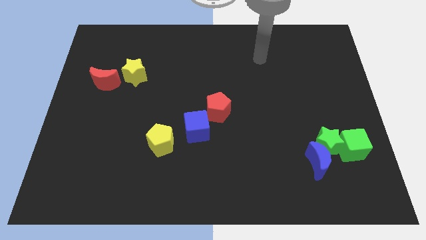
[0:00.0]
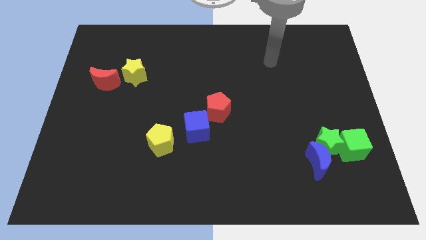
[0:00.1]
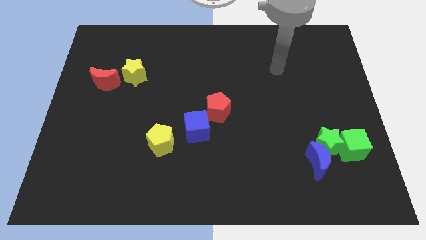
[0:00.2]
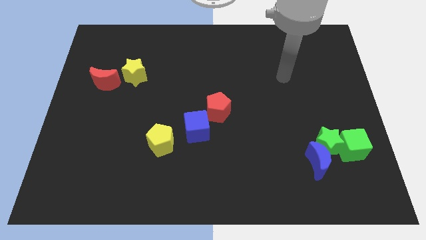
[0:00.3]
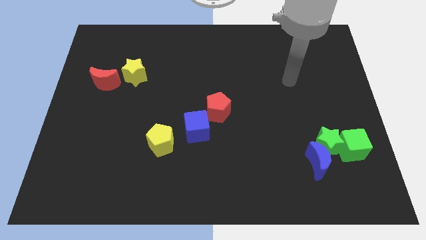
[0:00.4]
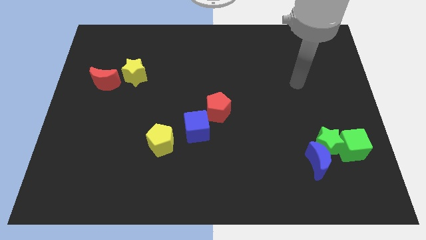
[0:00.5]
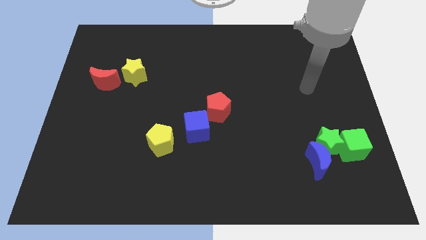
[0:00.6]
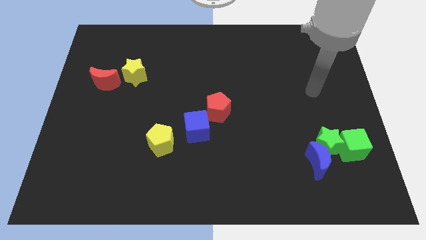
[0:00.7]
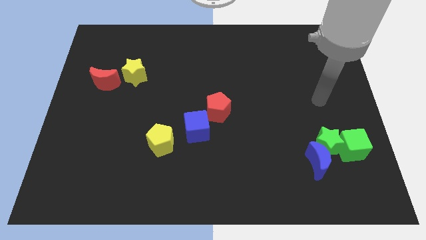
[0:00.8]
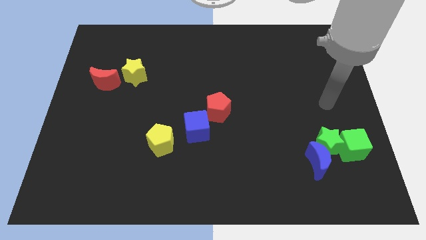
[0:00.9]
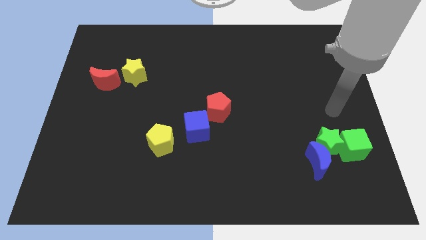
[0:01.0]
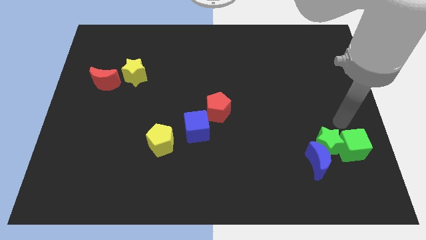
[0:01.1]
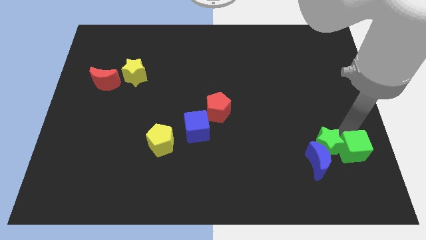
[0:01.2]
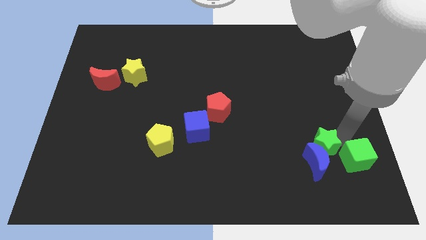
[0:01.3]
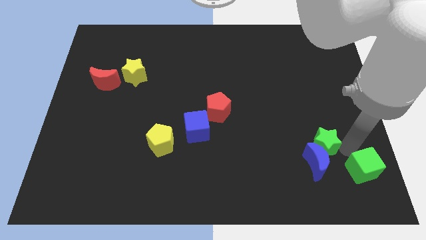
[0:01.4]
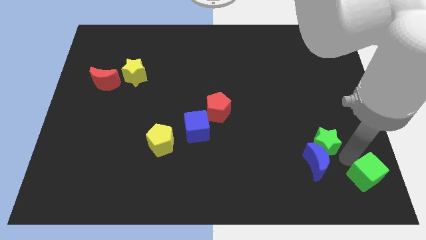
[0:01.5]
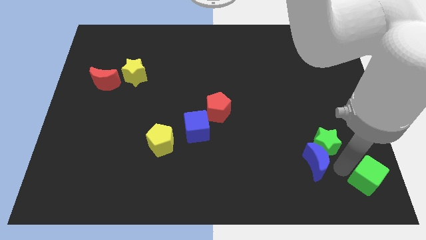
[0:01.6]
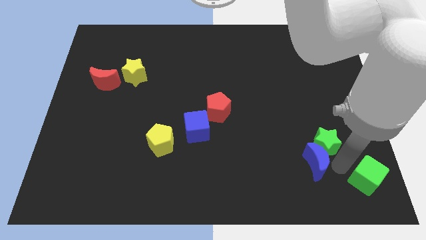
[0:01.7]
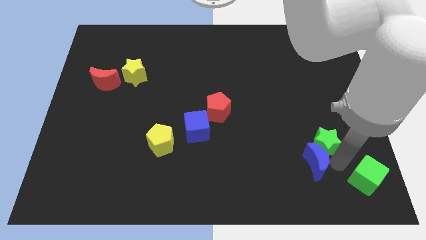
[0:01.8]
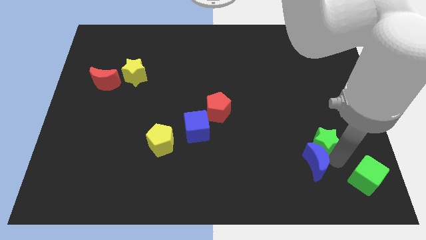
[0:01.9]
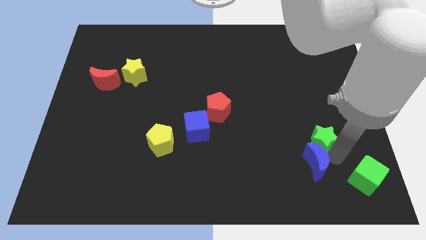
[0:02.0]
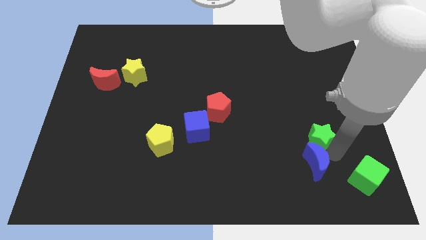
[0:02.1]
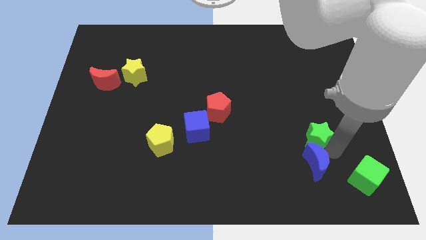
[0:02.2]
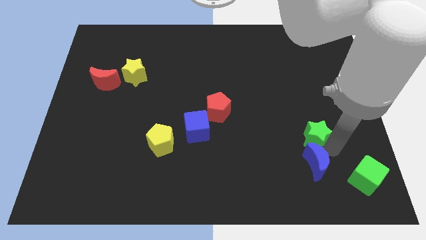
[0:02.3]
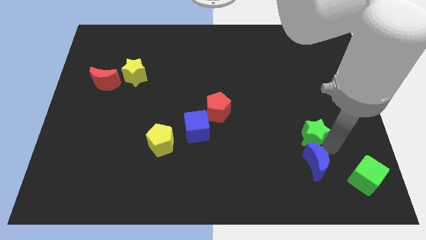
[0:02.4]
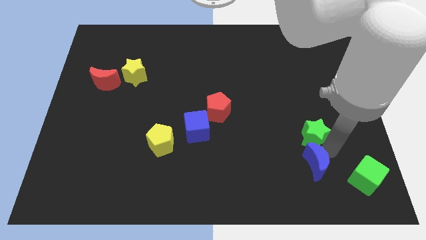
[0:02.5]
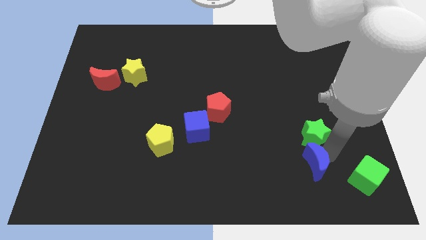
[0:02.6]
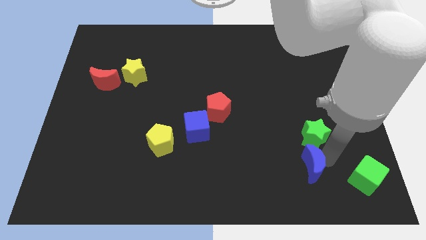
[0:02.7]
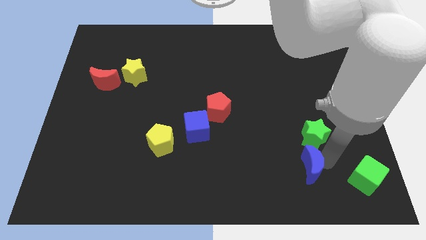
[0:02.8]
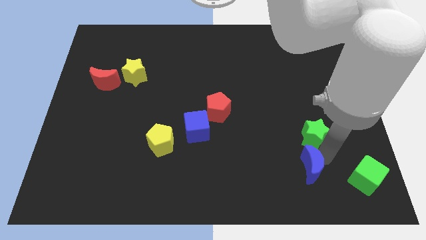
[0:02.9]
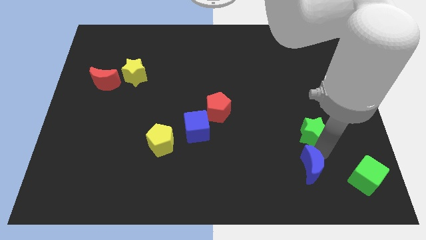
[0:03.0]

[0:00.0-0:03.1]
pull the green star apart from the blue moon and green cube

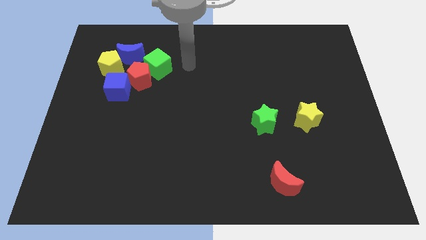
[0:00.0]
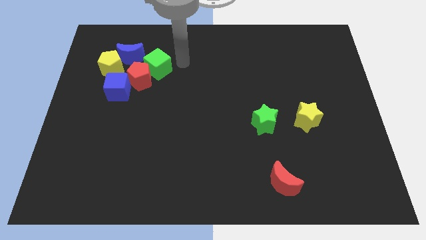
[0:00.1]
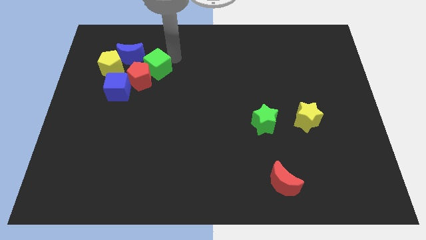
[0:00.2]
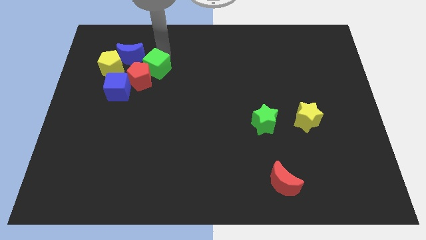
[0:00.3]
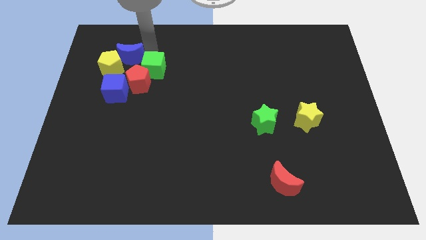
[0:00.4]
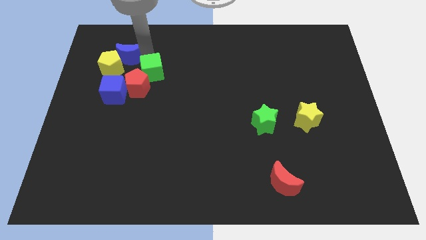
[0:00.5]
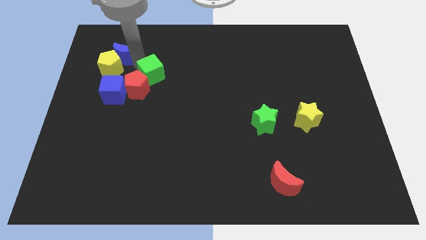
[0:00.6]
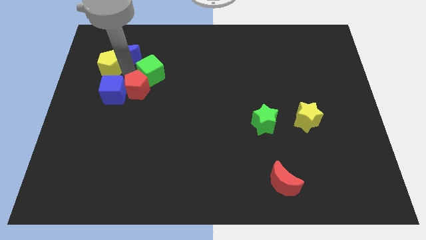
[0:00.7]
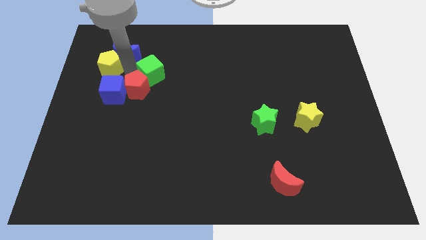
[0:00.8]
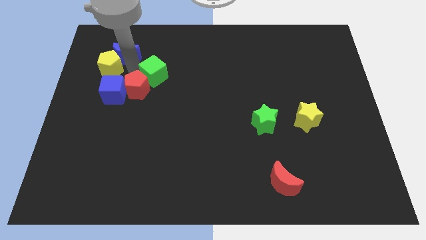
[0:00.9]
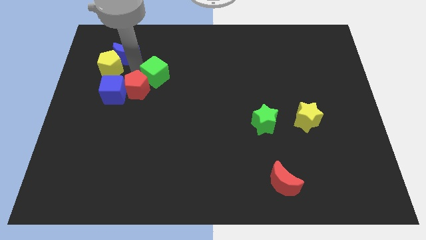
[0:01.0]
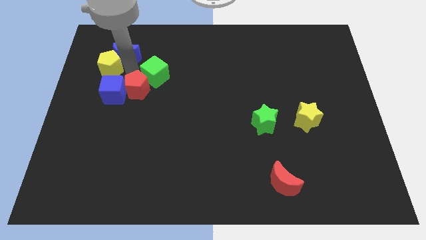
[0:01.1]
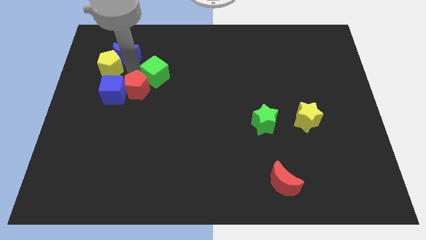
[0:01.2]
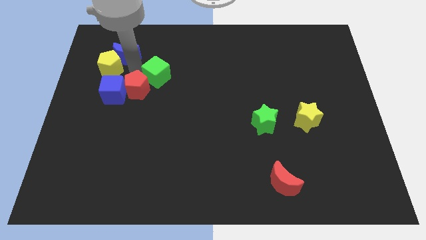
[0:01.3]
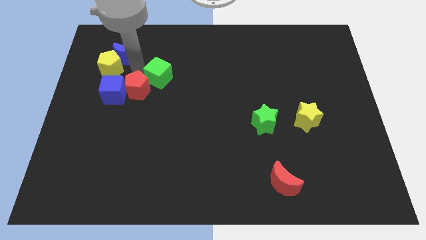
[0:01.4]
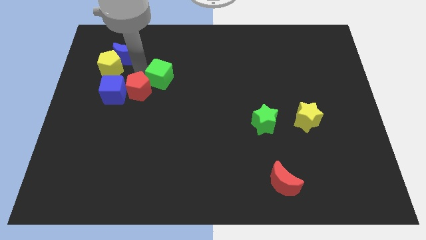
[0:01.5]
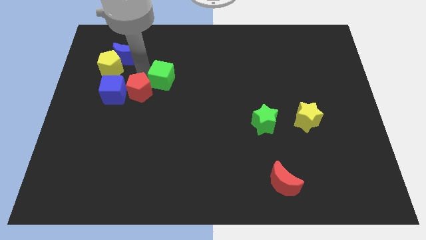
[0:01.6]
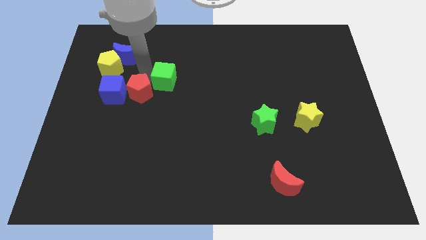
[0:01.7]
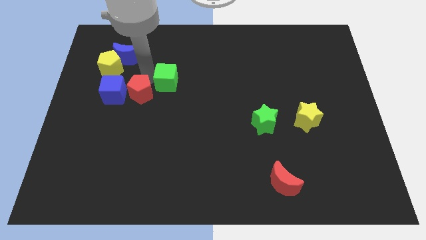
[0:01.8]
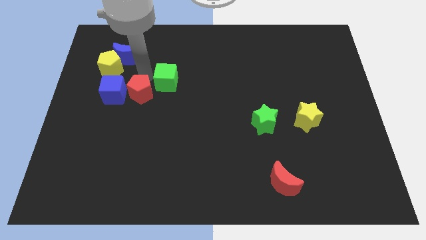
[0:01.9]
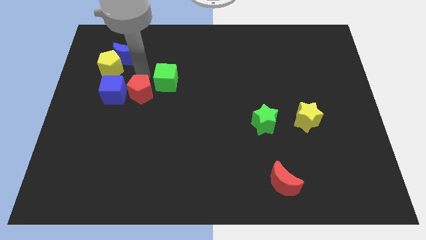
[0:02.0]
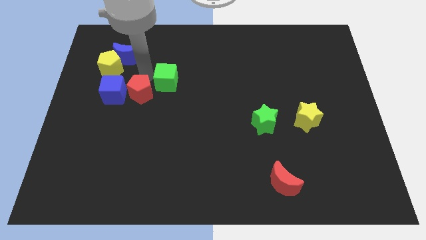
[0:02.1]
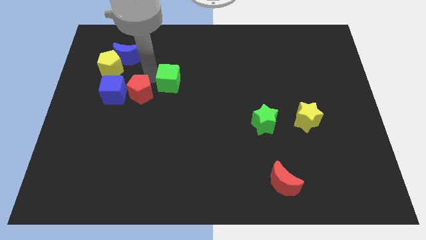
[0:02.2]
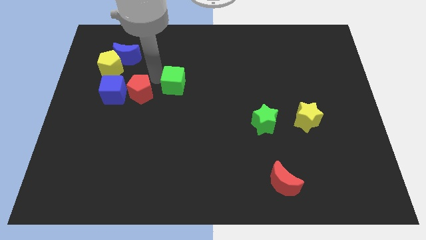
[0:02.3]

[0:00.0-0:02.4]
separate the green cube from the red pentagon and blue moon

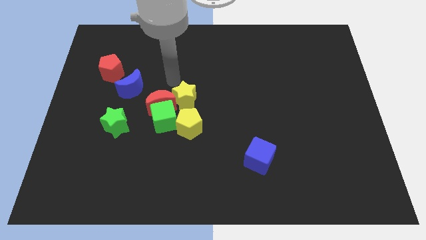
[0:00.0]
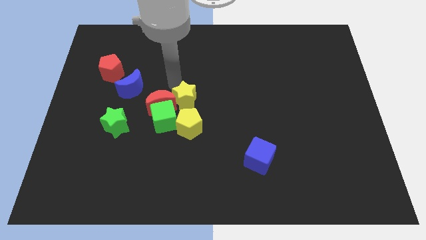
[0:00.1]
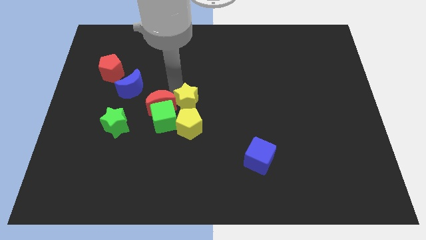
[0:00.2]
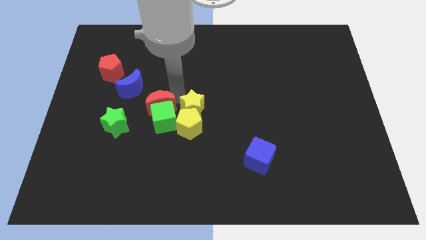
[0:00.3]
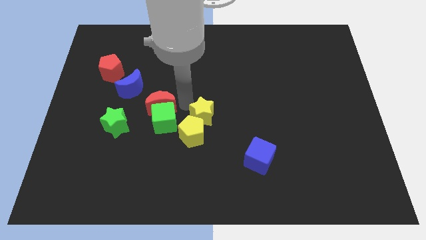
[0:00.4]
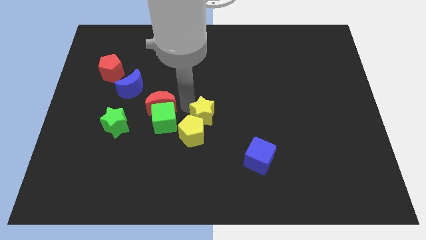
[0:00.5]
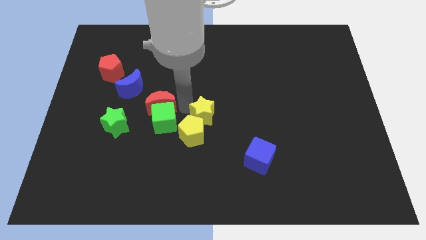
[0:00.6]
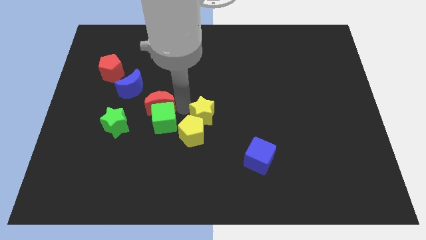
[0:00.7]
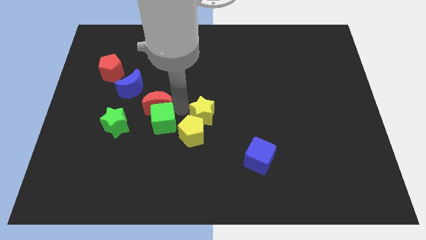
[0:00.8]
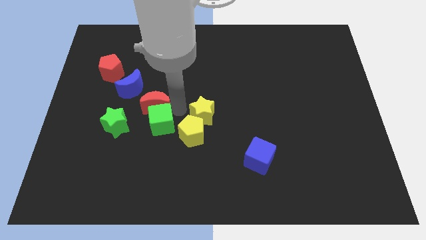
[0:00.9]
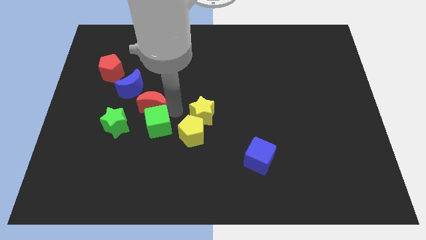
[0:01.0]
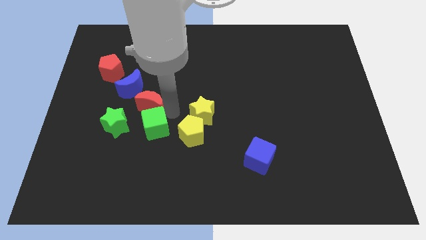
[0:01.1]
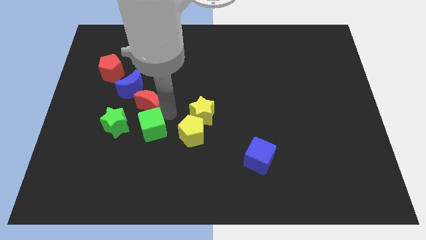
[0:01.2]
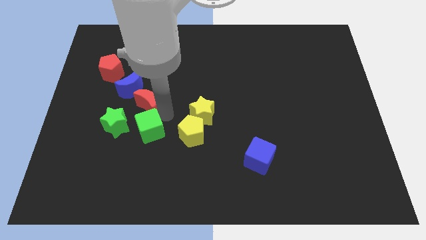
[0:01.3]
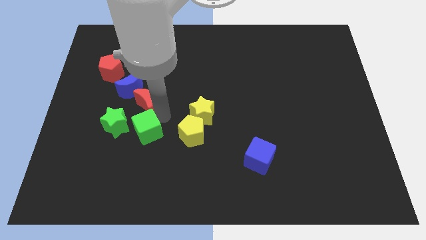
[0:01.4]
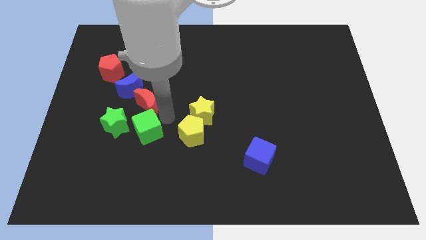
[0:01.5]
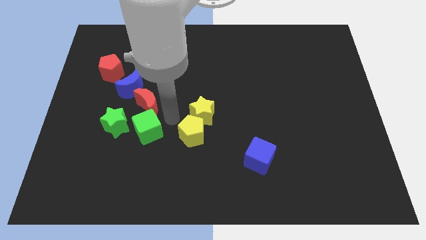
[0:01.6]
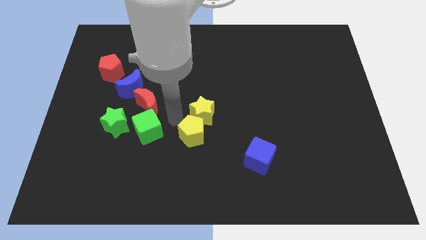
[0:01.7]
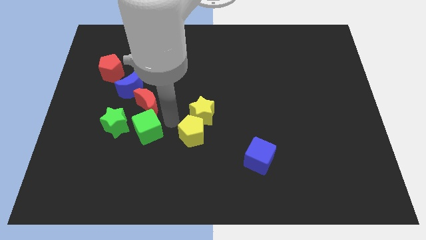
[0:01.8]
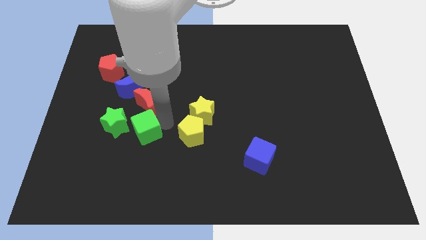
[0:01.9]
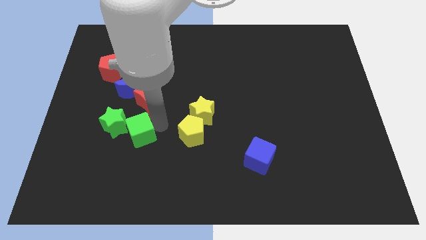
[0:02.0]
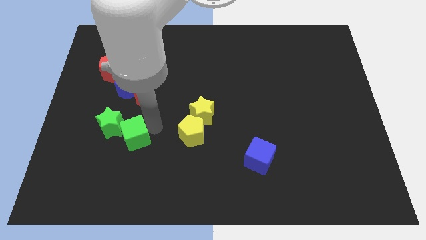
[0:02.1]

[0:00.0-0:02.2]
pull the green cube apart from the clump

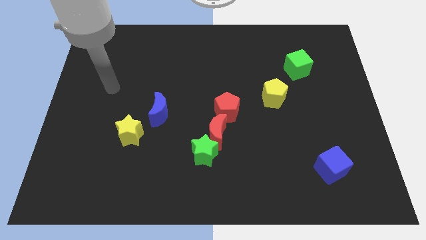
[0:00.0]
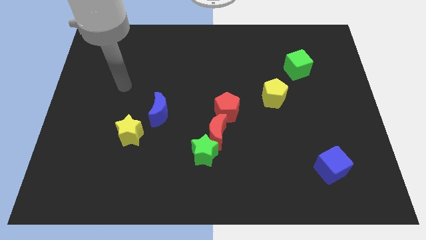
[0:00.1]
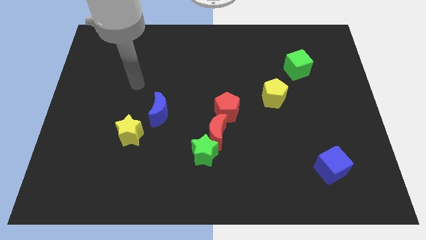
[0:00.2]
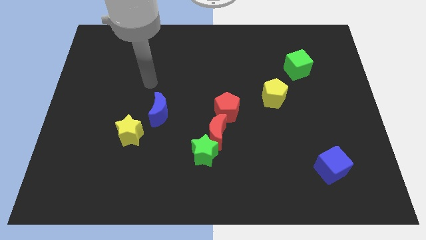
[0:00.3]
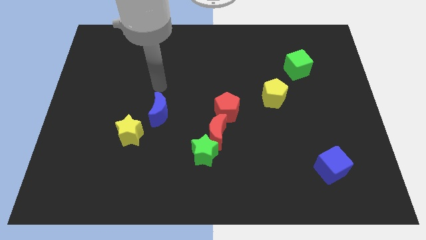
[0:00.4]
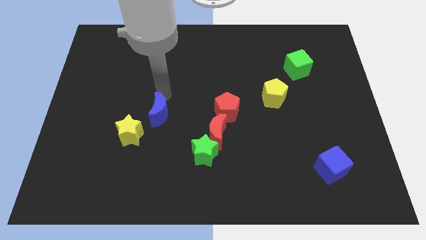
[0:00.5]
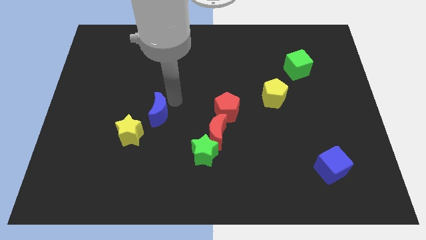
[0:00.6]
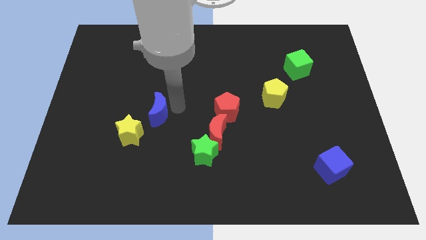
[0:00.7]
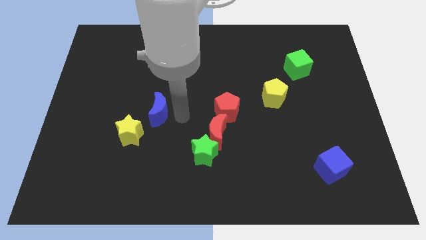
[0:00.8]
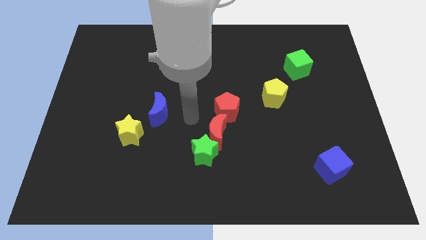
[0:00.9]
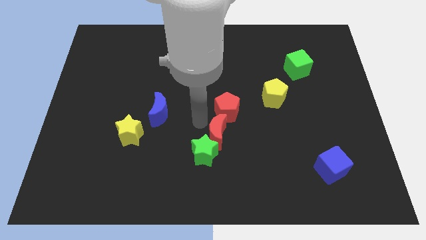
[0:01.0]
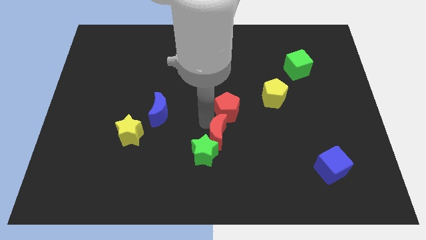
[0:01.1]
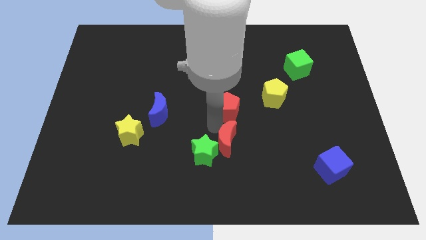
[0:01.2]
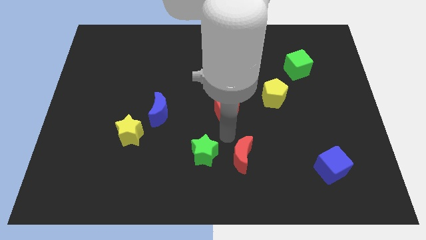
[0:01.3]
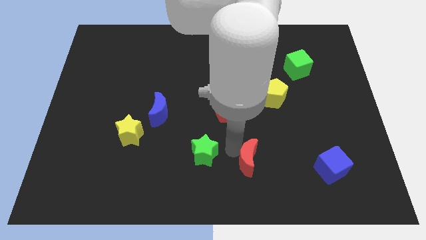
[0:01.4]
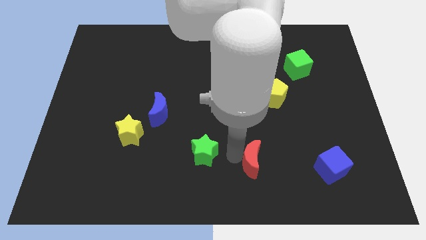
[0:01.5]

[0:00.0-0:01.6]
pull the green star apart from the red moon

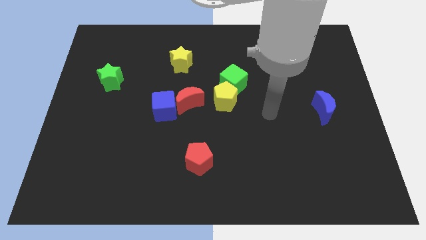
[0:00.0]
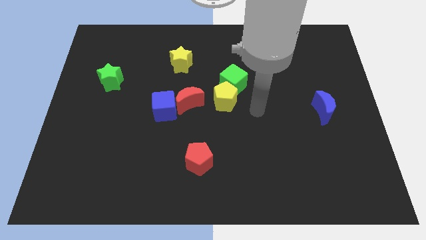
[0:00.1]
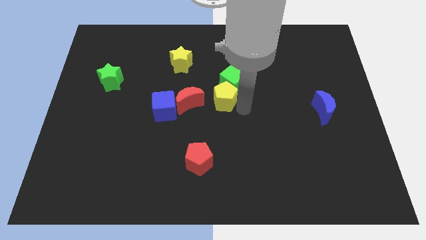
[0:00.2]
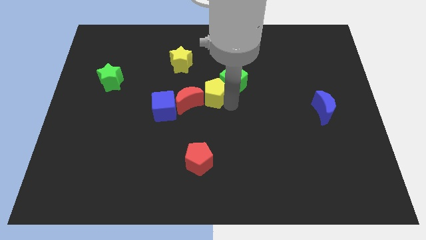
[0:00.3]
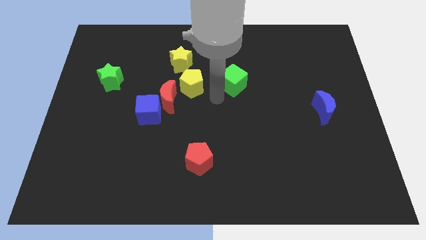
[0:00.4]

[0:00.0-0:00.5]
separate the green cube from the yellow pentagon
